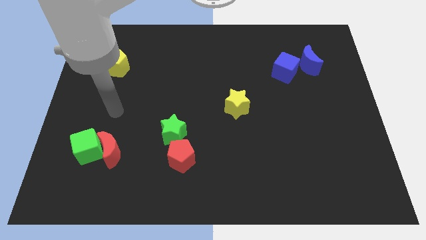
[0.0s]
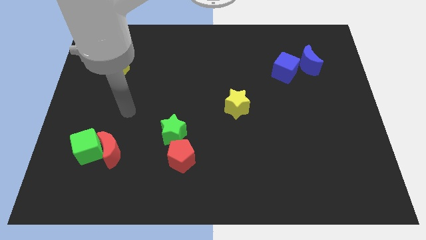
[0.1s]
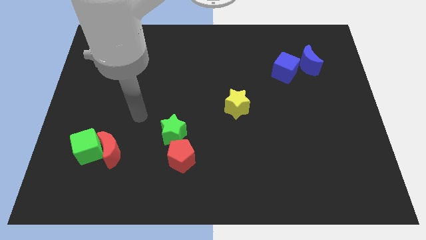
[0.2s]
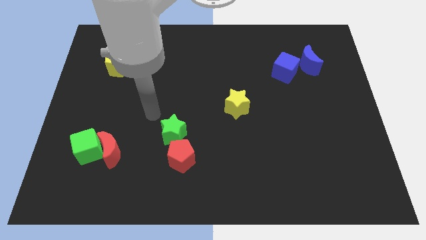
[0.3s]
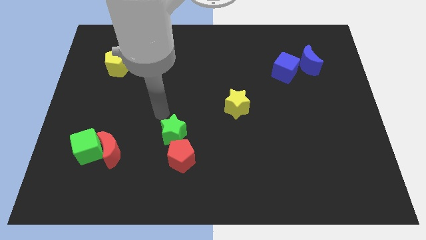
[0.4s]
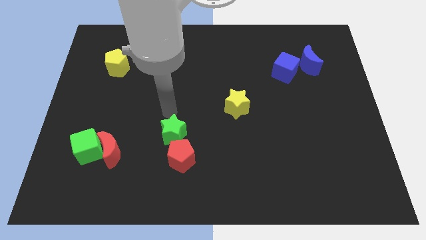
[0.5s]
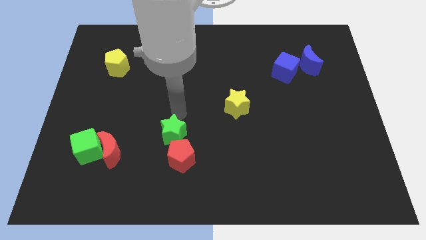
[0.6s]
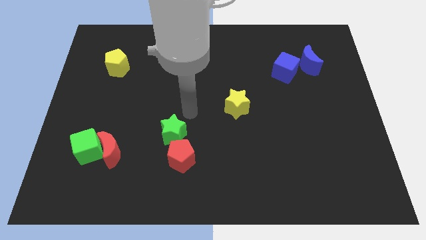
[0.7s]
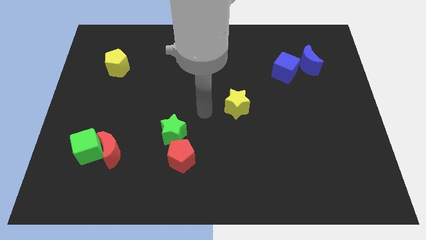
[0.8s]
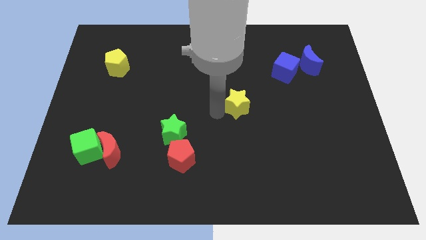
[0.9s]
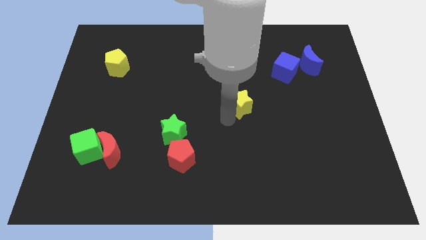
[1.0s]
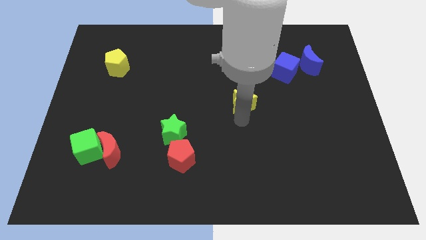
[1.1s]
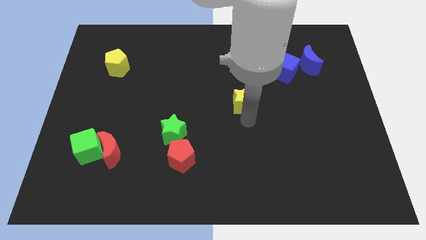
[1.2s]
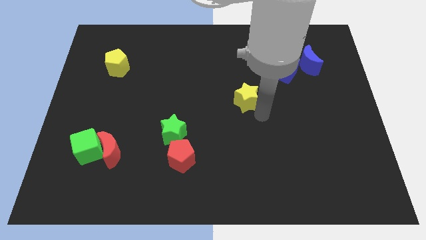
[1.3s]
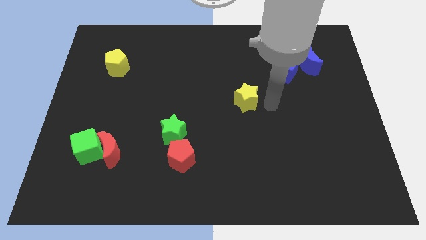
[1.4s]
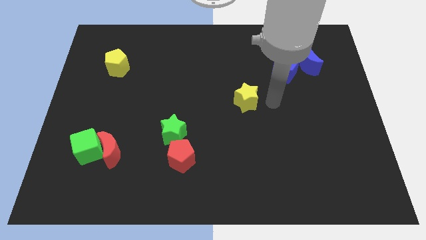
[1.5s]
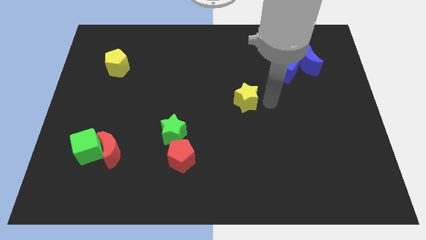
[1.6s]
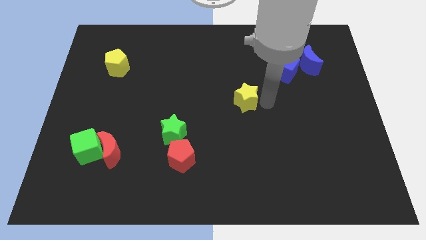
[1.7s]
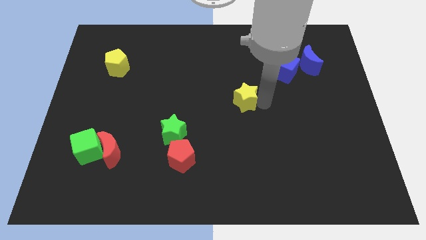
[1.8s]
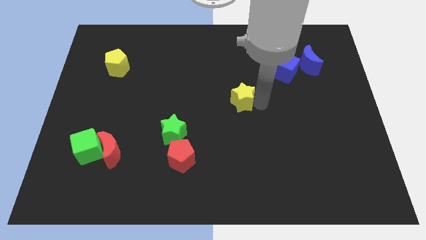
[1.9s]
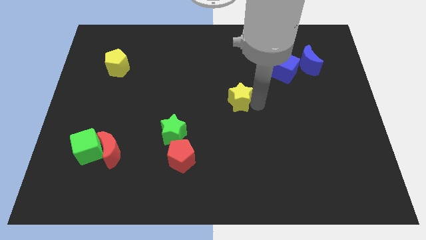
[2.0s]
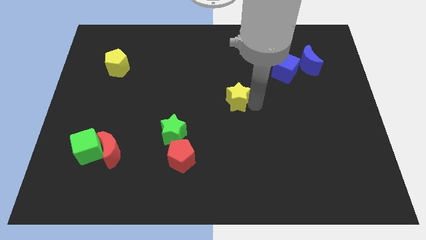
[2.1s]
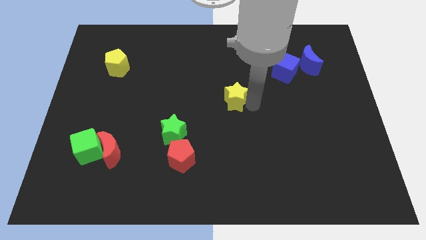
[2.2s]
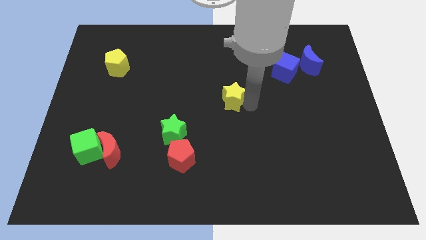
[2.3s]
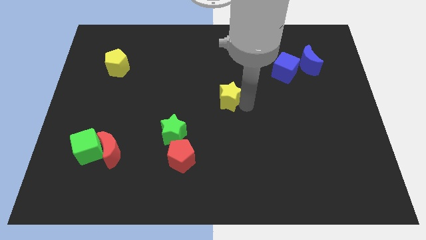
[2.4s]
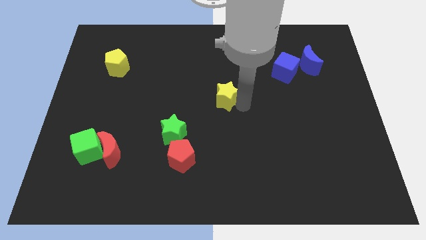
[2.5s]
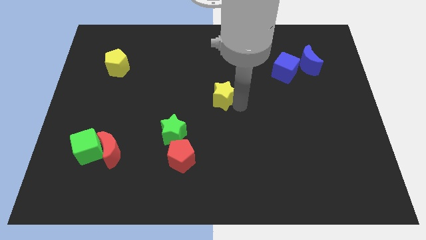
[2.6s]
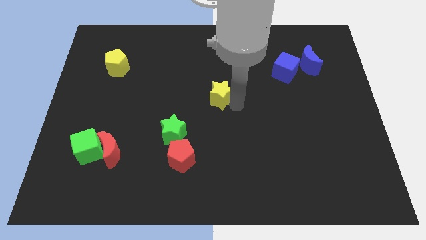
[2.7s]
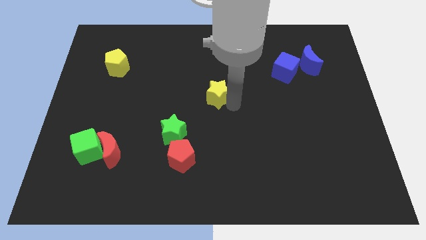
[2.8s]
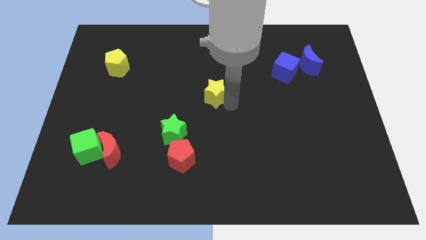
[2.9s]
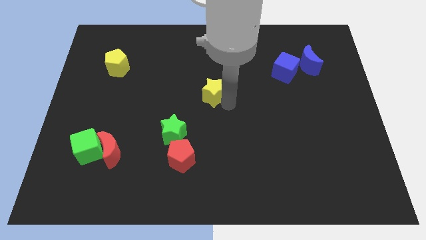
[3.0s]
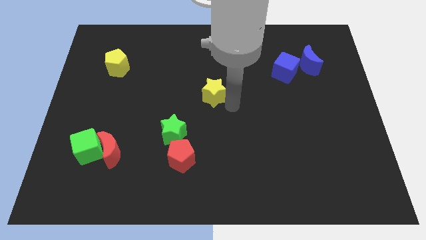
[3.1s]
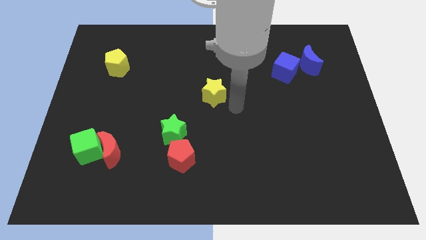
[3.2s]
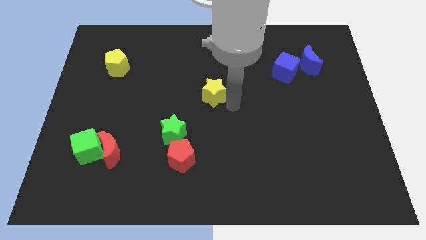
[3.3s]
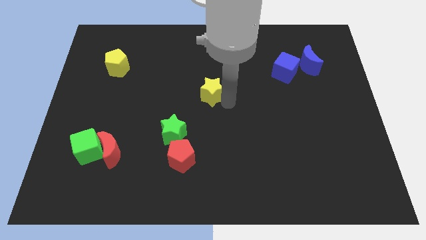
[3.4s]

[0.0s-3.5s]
slide the yellow star a bit upwards and left diagonally

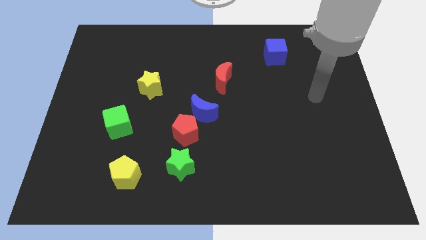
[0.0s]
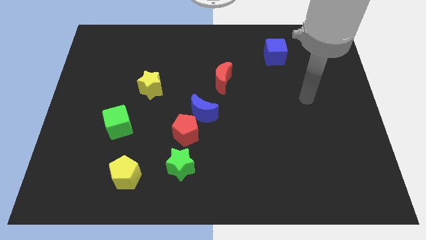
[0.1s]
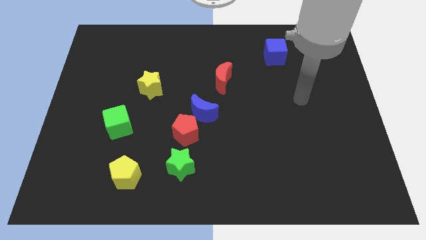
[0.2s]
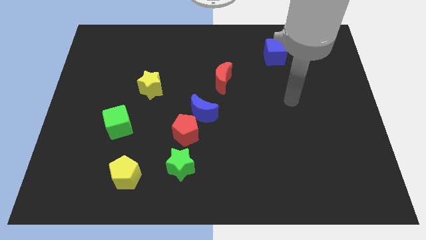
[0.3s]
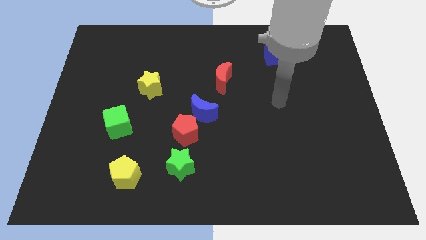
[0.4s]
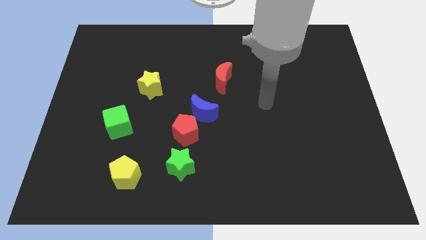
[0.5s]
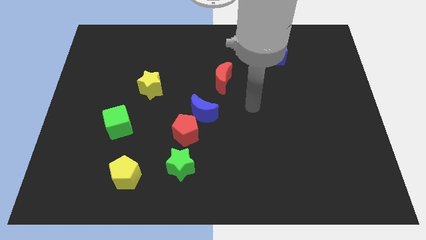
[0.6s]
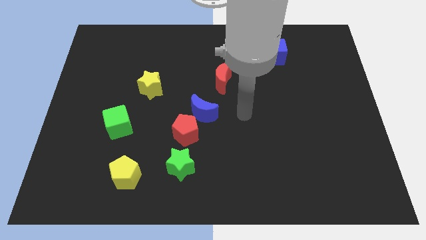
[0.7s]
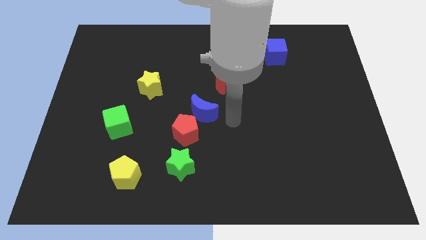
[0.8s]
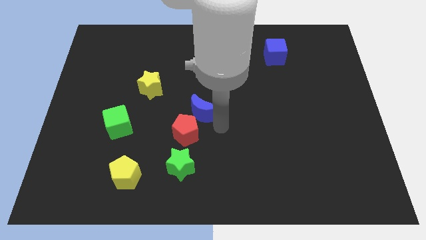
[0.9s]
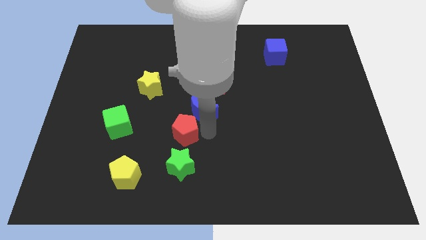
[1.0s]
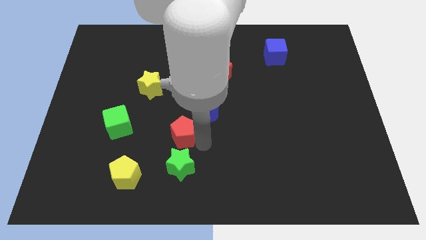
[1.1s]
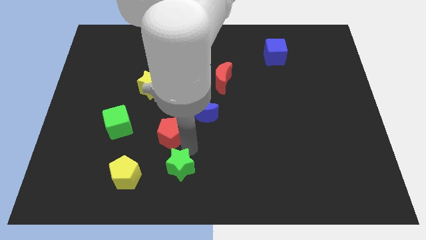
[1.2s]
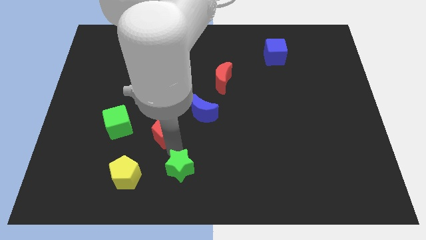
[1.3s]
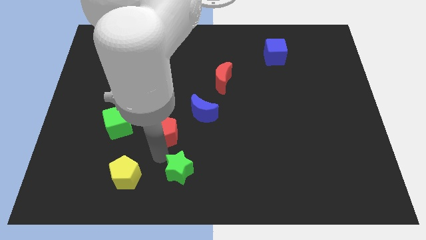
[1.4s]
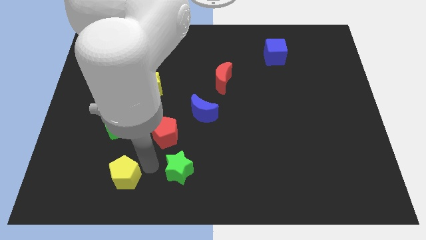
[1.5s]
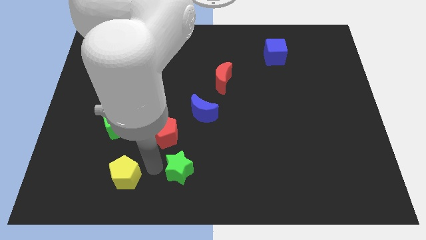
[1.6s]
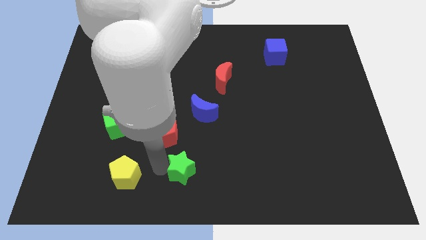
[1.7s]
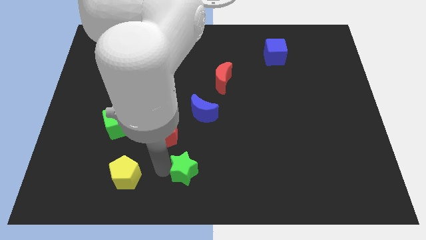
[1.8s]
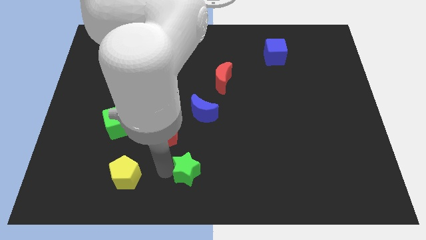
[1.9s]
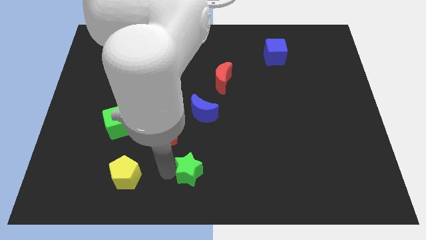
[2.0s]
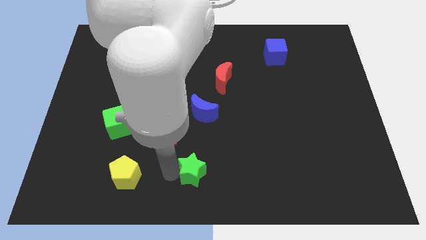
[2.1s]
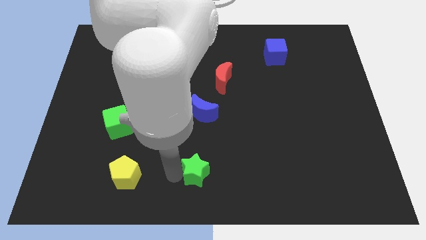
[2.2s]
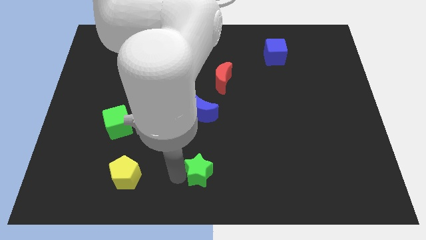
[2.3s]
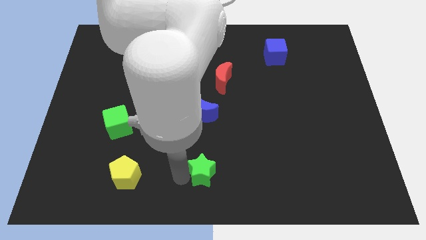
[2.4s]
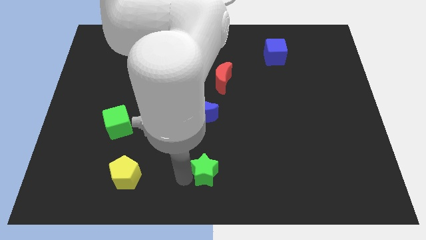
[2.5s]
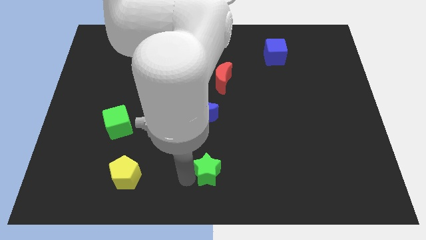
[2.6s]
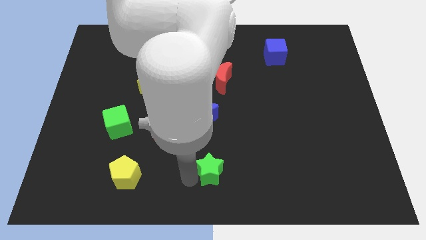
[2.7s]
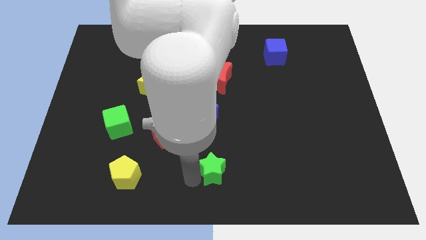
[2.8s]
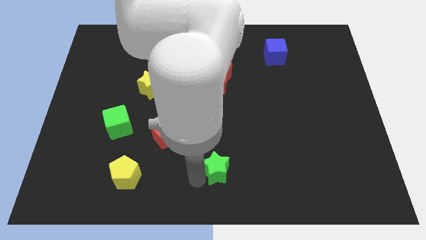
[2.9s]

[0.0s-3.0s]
move the green star a little bit right

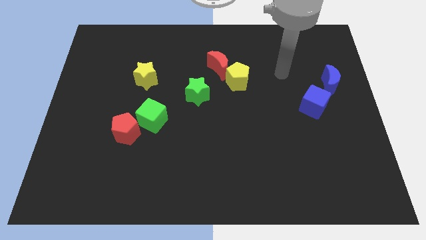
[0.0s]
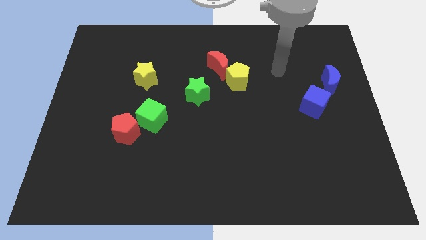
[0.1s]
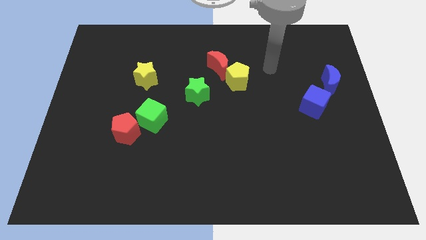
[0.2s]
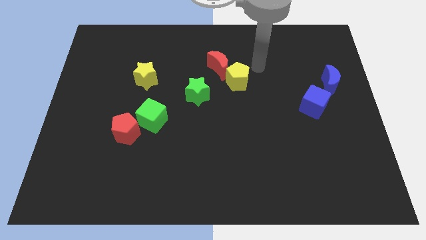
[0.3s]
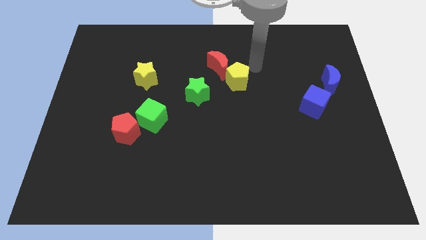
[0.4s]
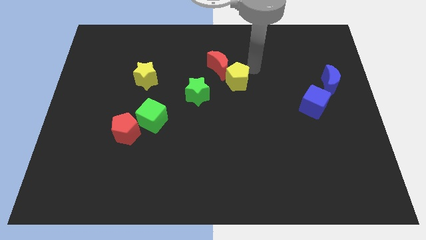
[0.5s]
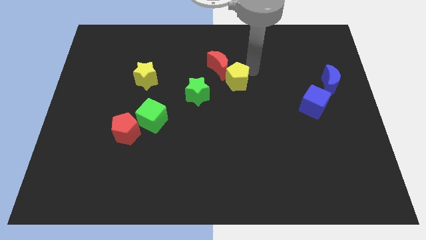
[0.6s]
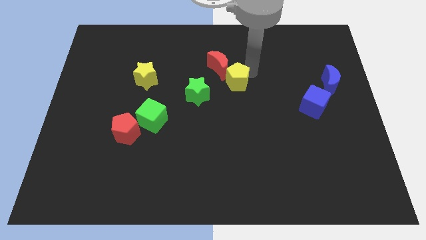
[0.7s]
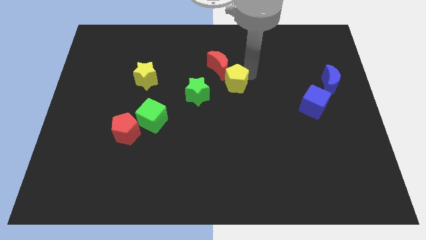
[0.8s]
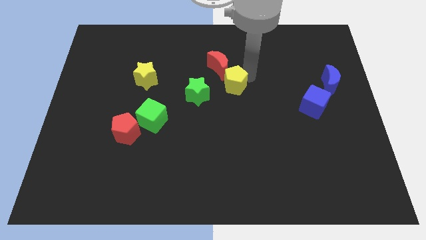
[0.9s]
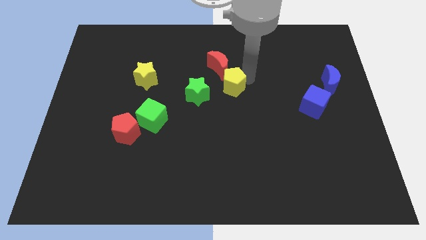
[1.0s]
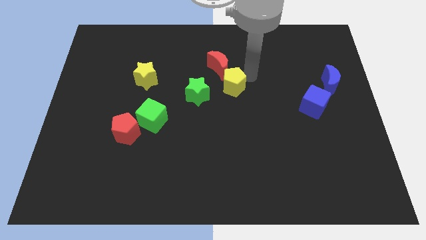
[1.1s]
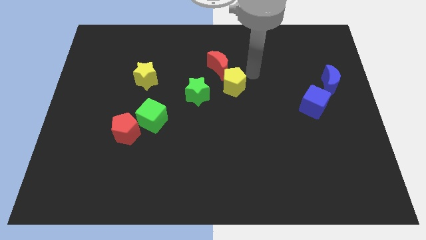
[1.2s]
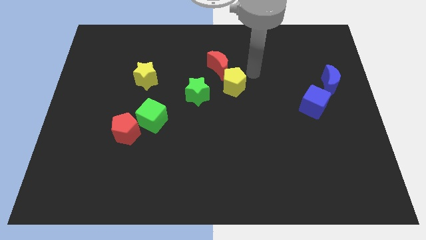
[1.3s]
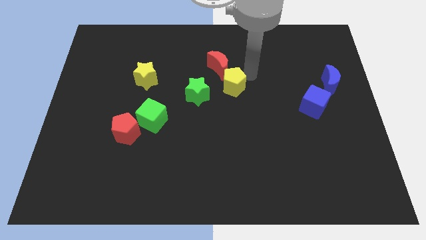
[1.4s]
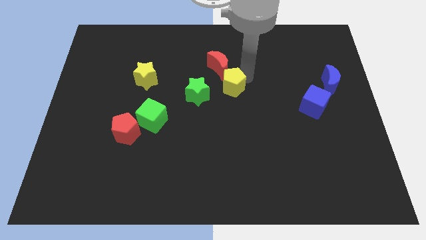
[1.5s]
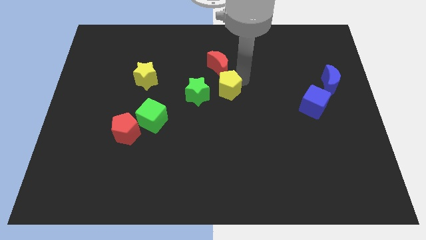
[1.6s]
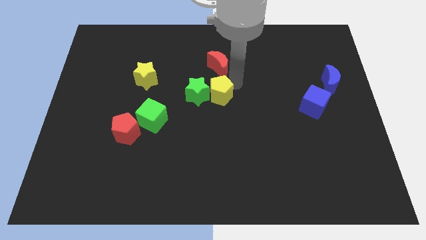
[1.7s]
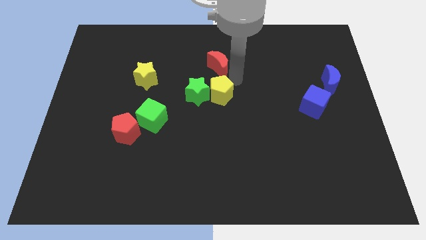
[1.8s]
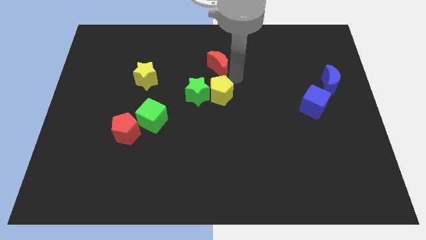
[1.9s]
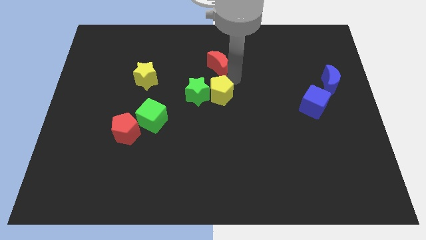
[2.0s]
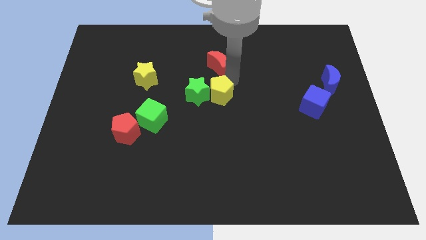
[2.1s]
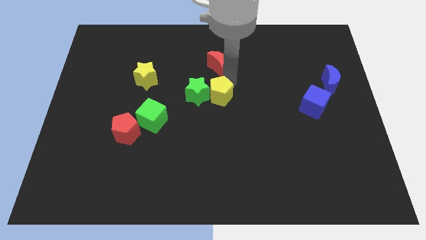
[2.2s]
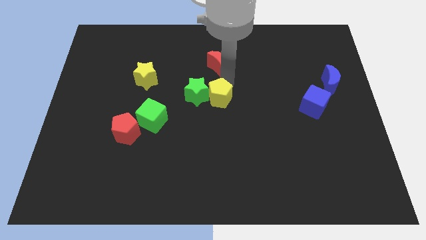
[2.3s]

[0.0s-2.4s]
slightly slide the yellow pentagon down and to the left diagonally
